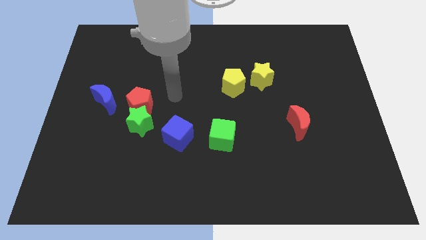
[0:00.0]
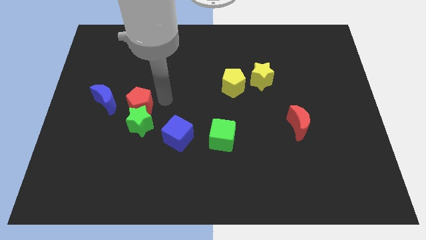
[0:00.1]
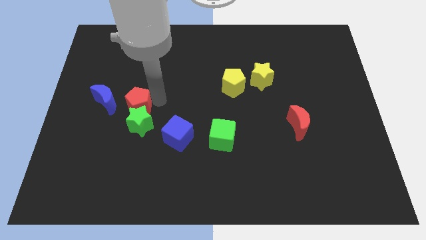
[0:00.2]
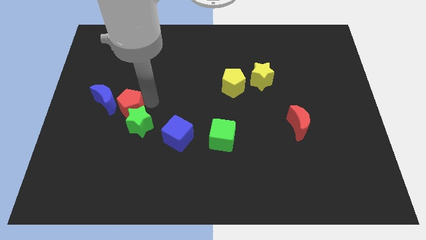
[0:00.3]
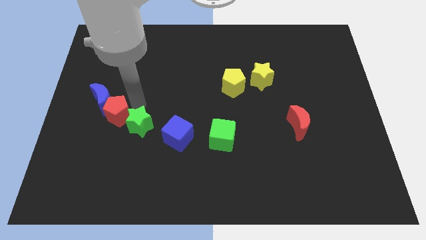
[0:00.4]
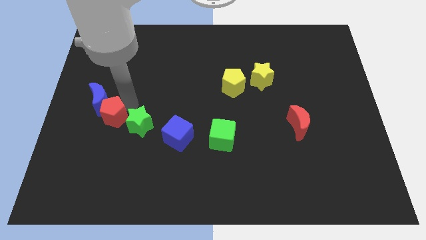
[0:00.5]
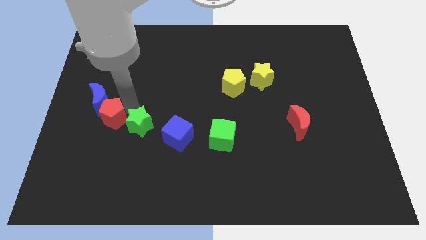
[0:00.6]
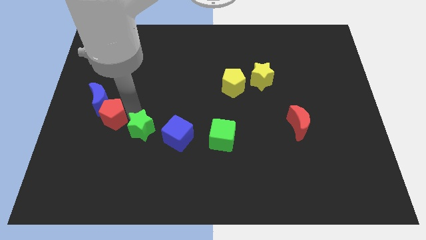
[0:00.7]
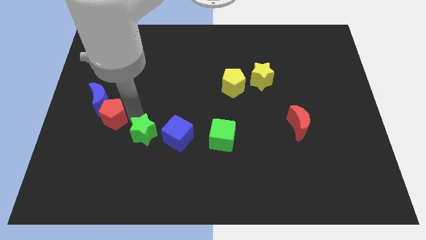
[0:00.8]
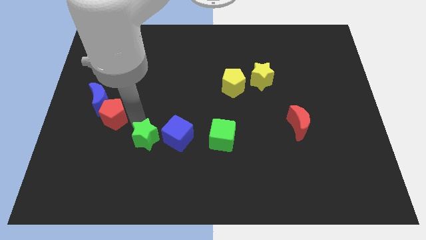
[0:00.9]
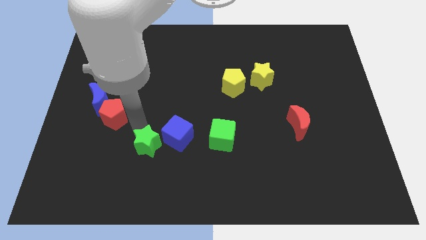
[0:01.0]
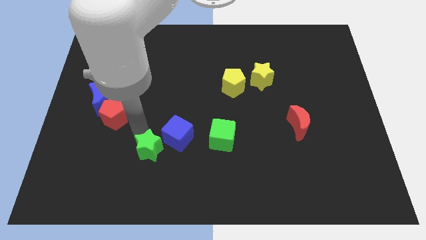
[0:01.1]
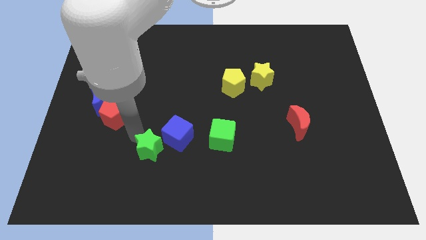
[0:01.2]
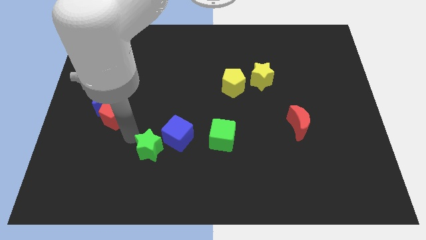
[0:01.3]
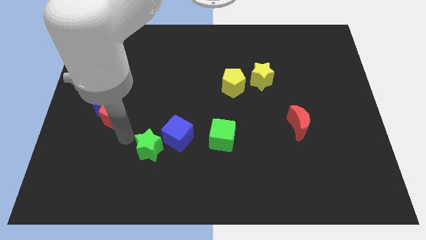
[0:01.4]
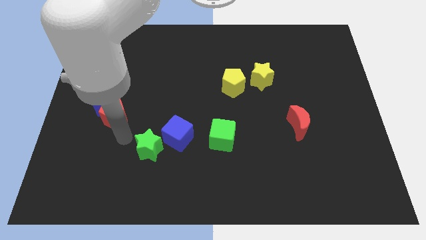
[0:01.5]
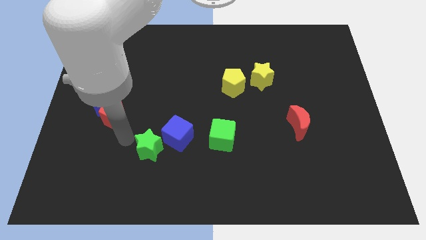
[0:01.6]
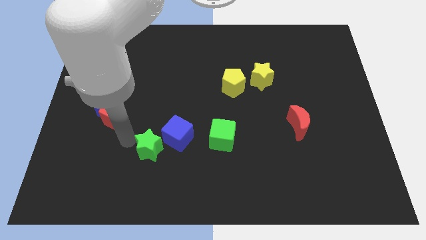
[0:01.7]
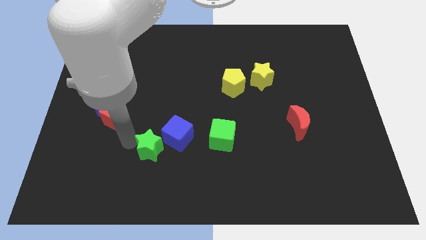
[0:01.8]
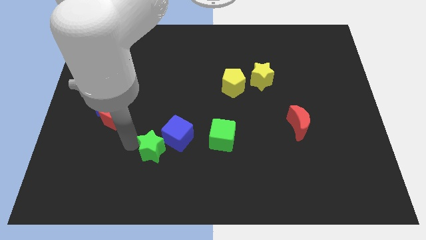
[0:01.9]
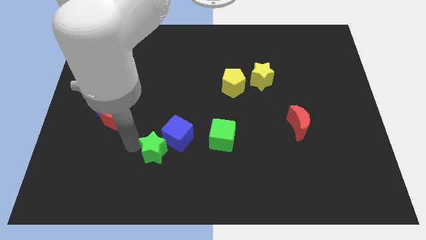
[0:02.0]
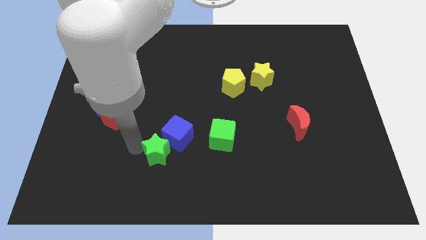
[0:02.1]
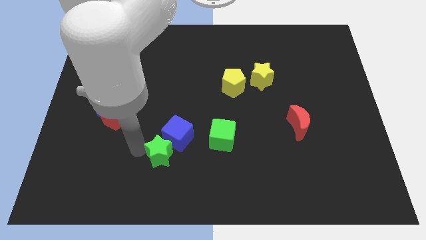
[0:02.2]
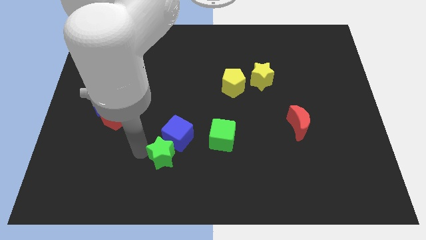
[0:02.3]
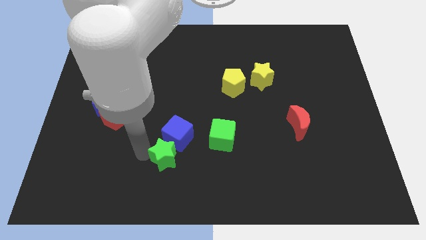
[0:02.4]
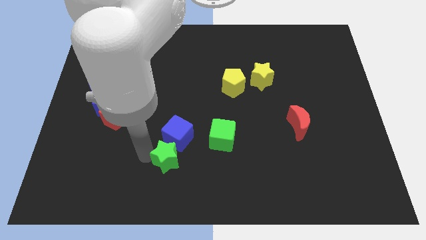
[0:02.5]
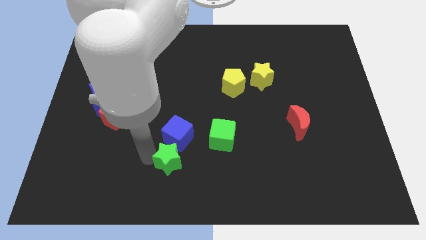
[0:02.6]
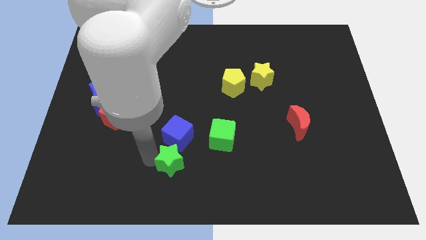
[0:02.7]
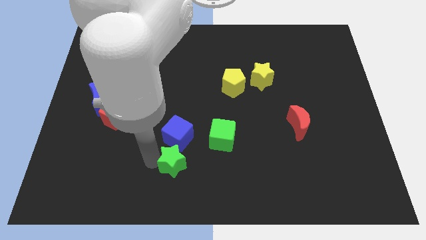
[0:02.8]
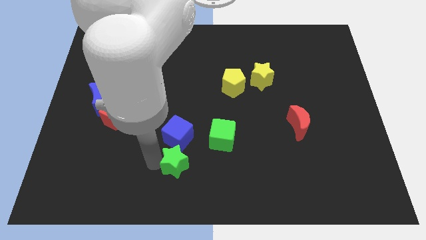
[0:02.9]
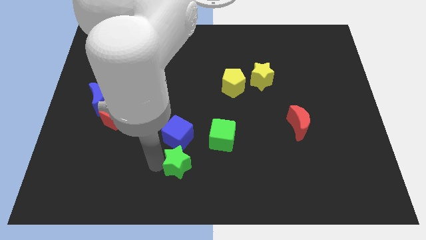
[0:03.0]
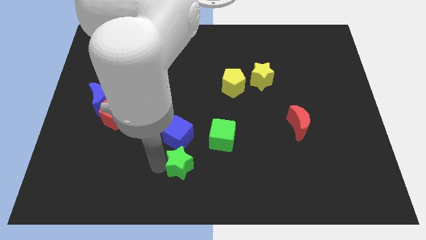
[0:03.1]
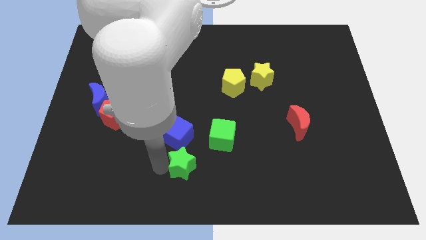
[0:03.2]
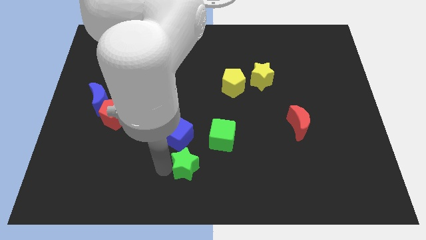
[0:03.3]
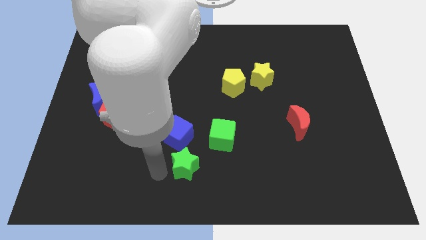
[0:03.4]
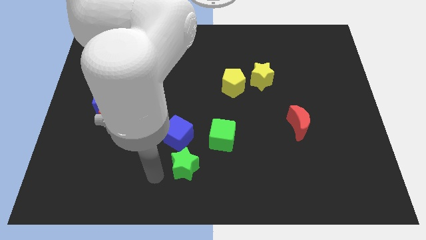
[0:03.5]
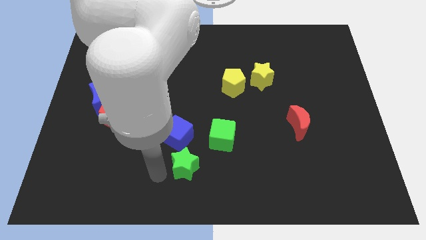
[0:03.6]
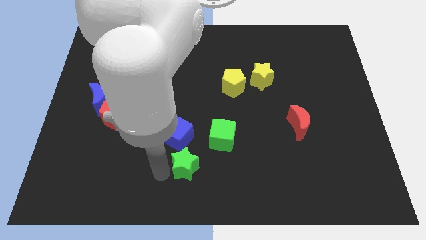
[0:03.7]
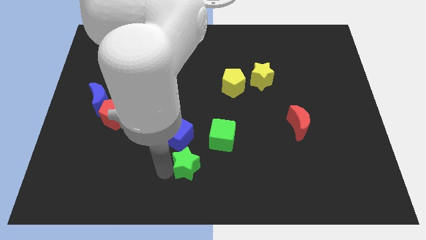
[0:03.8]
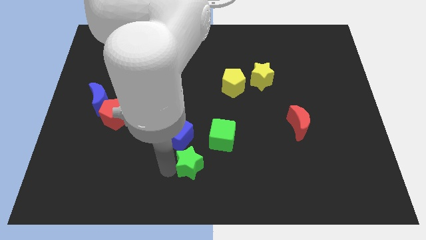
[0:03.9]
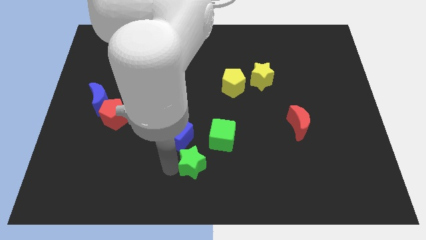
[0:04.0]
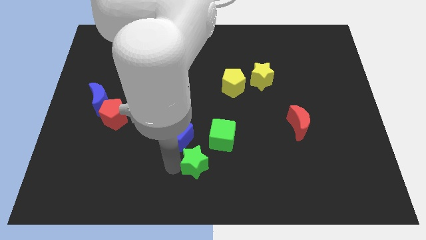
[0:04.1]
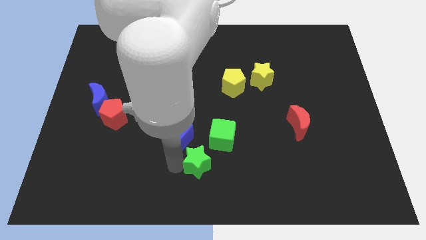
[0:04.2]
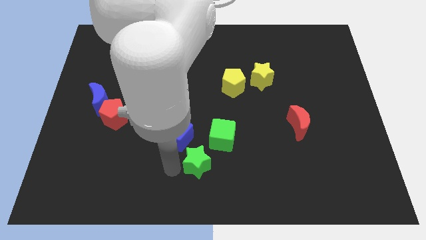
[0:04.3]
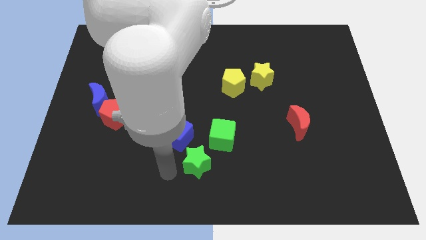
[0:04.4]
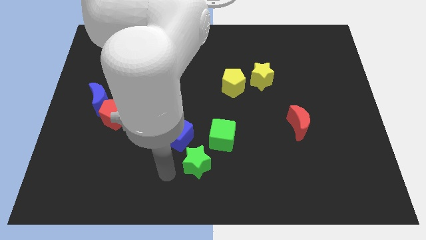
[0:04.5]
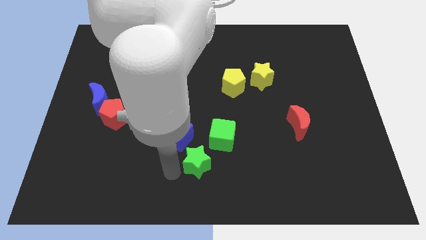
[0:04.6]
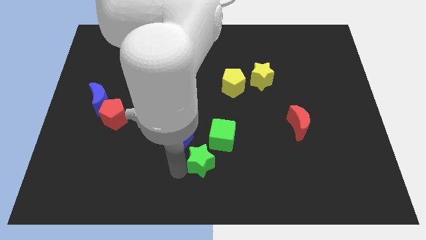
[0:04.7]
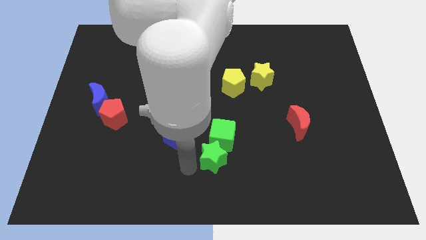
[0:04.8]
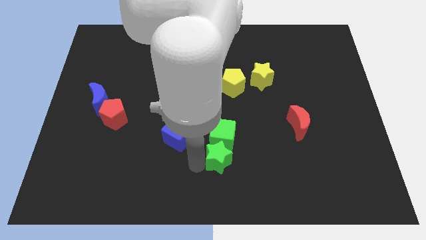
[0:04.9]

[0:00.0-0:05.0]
slide the green star to the bottom right side of the green cube

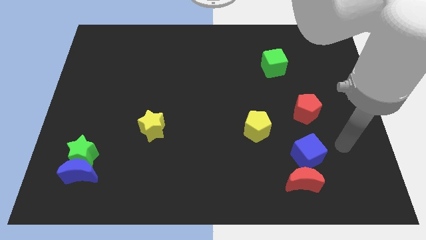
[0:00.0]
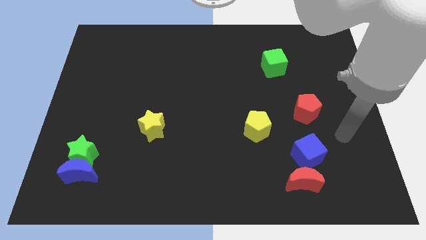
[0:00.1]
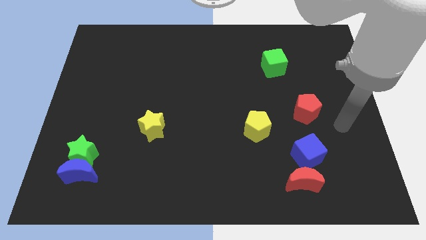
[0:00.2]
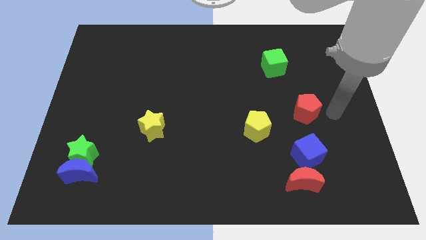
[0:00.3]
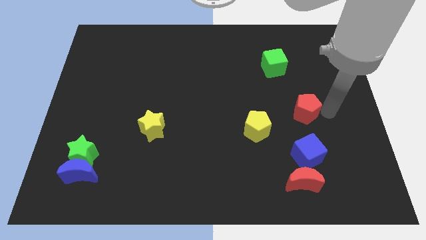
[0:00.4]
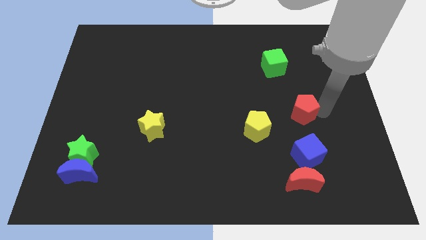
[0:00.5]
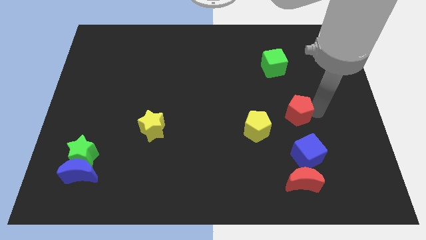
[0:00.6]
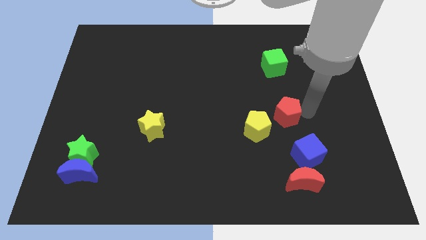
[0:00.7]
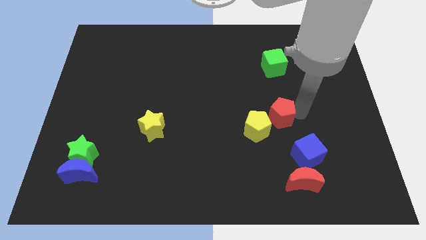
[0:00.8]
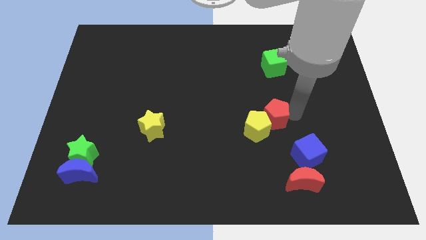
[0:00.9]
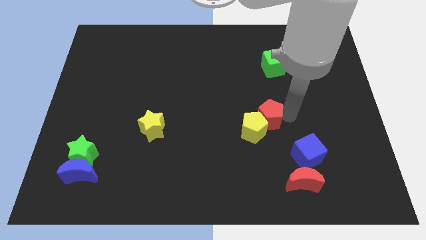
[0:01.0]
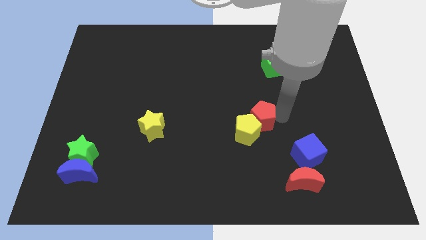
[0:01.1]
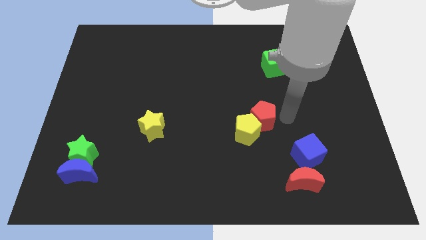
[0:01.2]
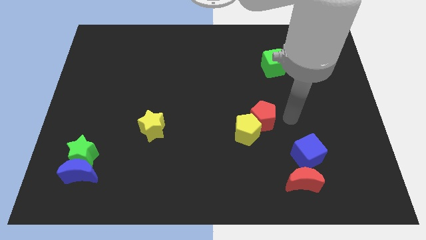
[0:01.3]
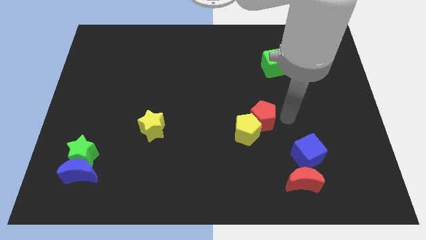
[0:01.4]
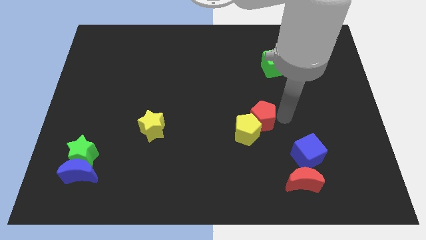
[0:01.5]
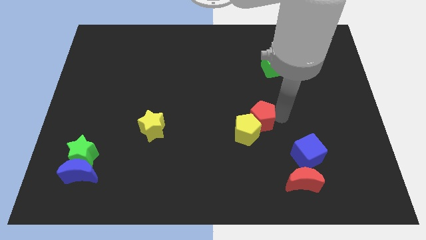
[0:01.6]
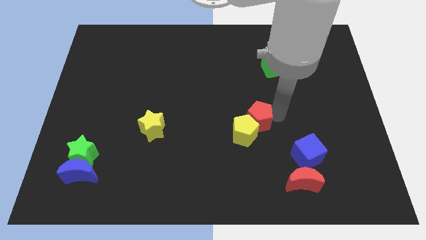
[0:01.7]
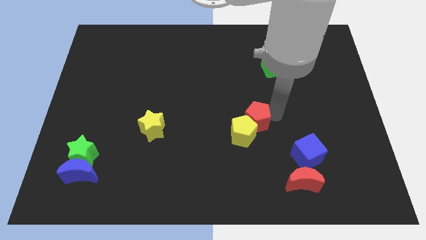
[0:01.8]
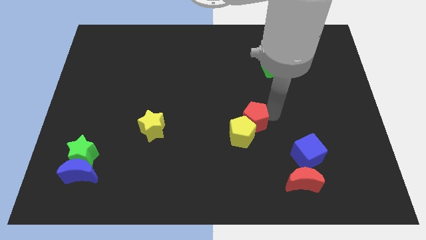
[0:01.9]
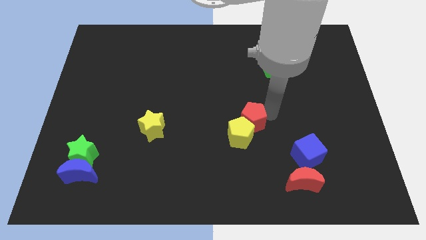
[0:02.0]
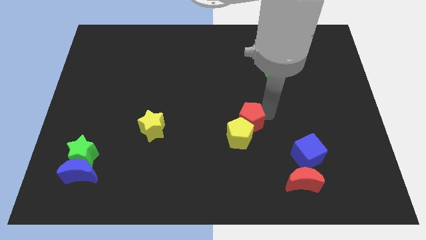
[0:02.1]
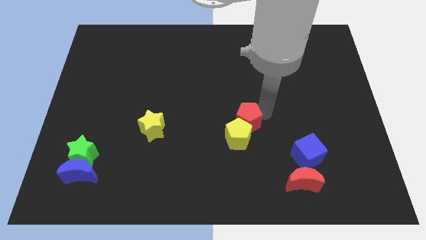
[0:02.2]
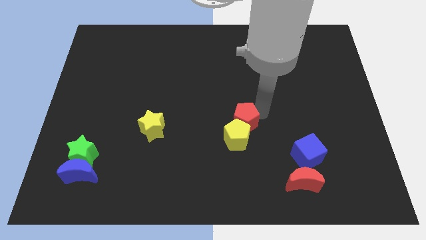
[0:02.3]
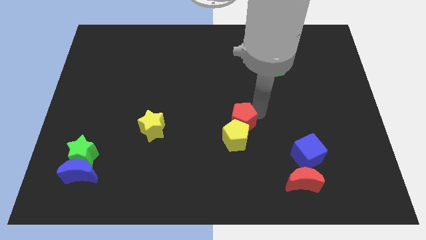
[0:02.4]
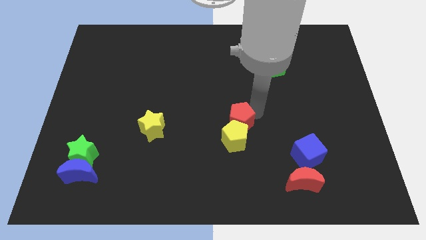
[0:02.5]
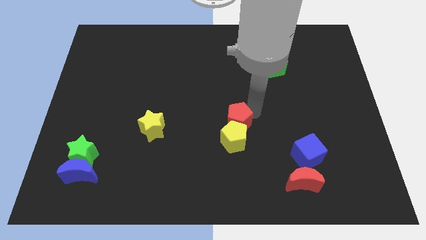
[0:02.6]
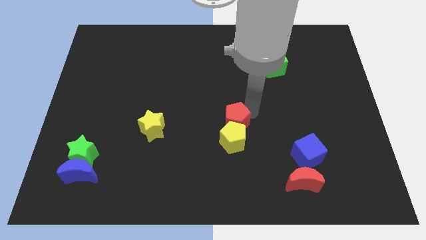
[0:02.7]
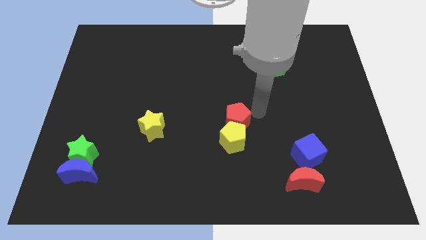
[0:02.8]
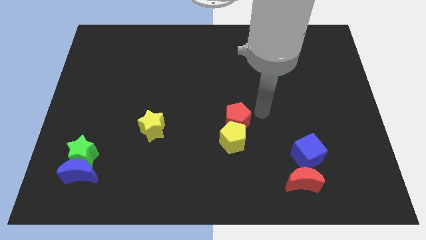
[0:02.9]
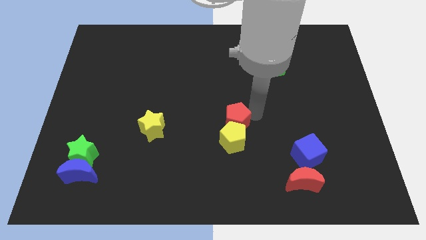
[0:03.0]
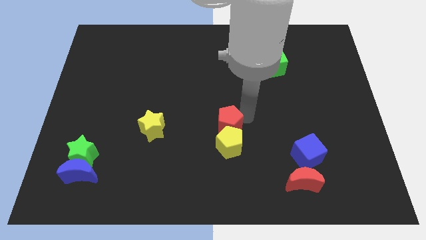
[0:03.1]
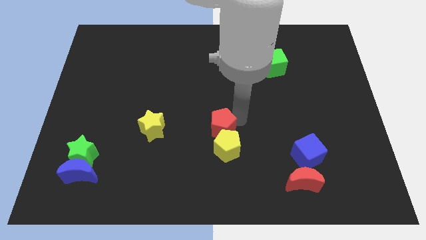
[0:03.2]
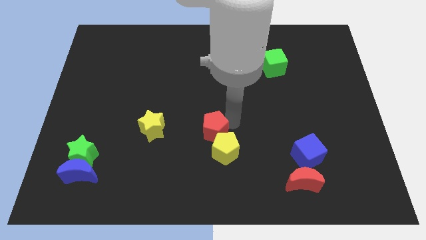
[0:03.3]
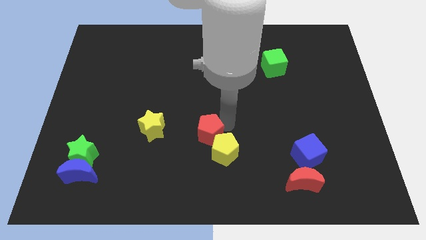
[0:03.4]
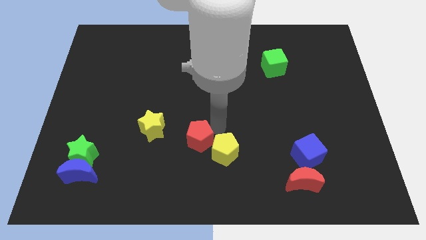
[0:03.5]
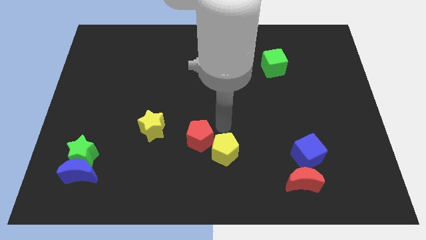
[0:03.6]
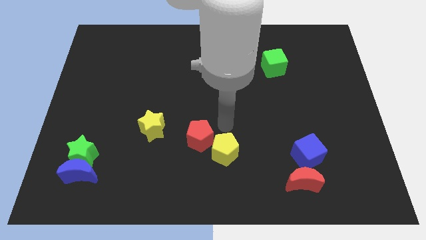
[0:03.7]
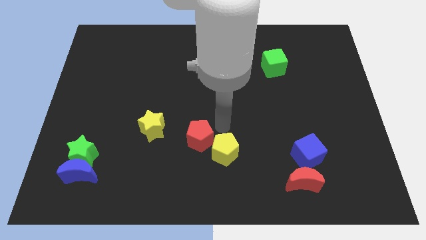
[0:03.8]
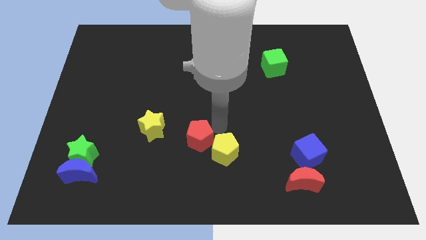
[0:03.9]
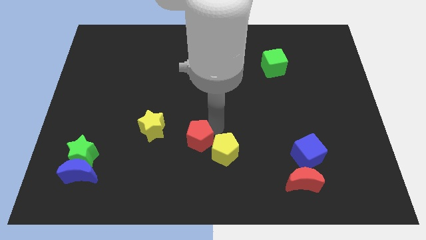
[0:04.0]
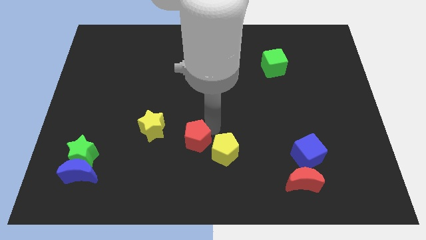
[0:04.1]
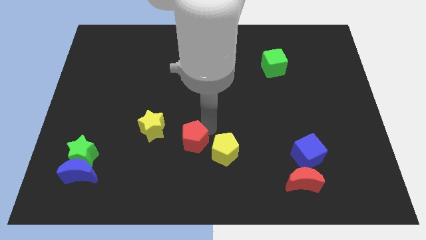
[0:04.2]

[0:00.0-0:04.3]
put the red pentagon to the bottom right of the yellow star
